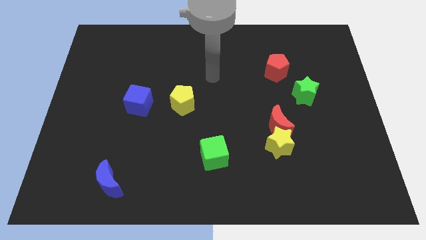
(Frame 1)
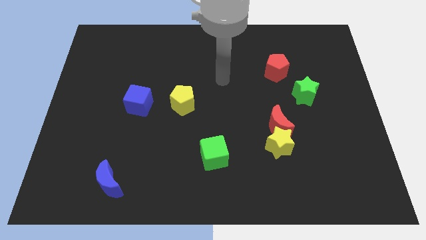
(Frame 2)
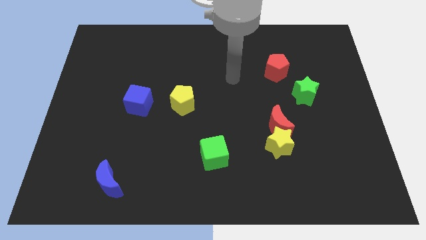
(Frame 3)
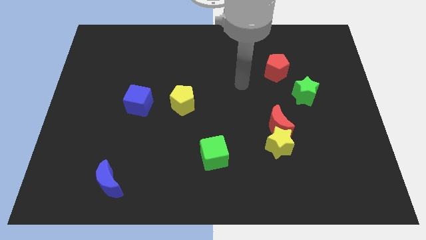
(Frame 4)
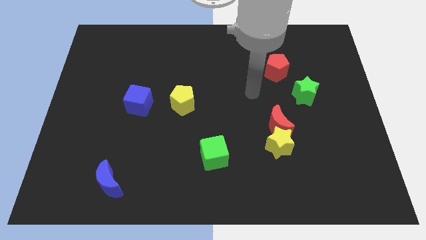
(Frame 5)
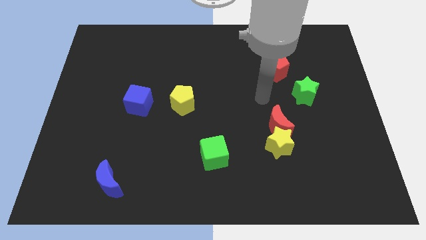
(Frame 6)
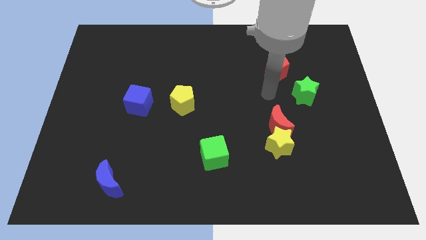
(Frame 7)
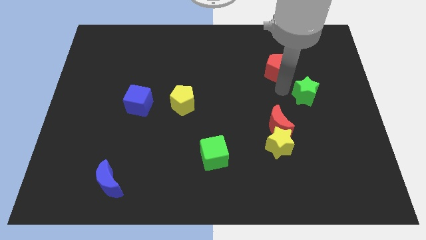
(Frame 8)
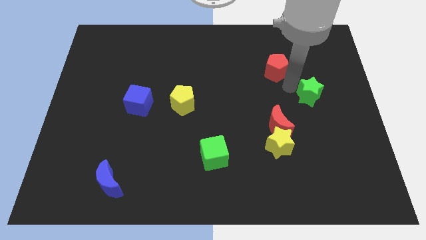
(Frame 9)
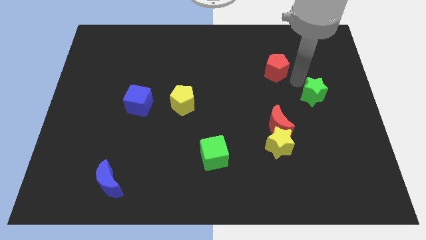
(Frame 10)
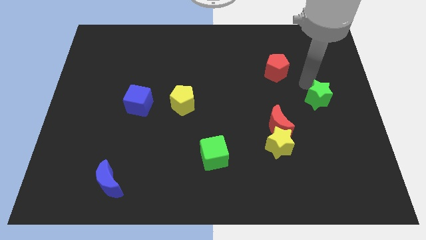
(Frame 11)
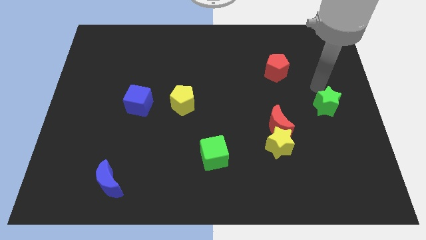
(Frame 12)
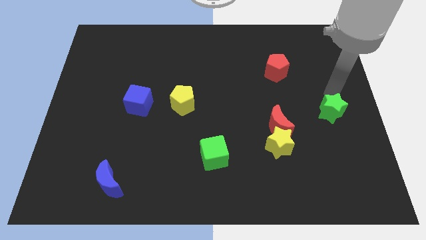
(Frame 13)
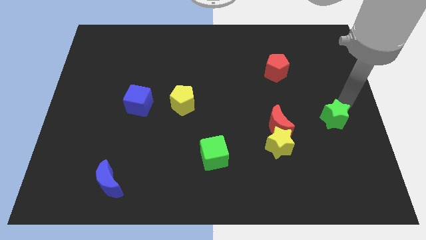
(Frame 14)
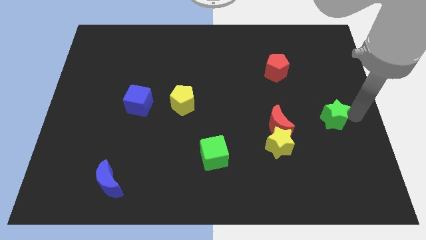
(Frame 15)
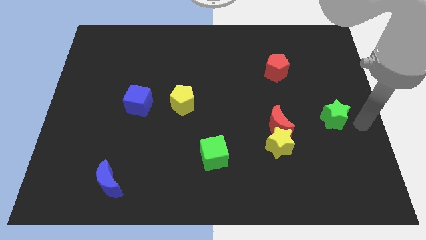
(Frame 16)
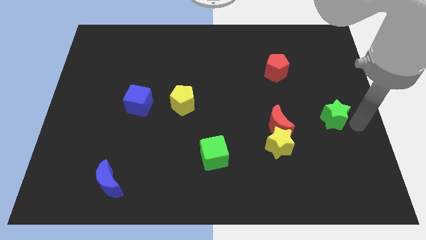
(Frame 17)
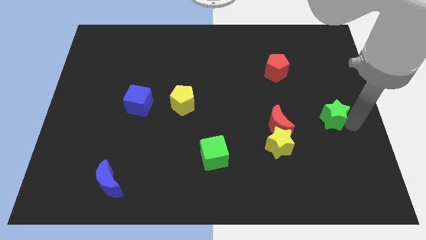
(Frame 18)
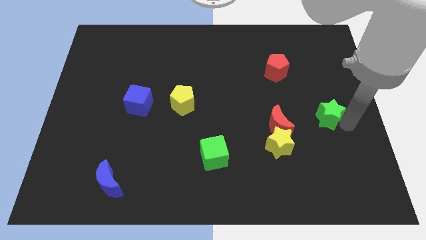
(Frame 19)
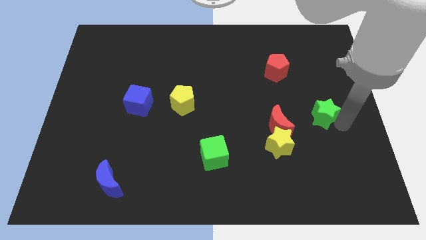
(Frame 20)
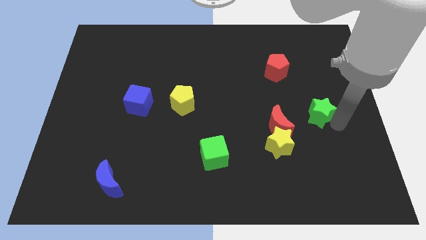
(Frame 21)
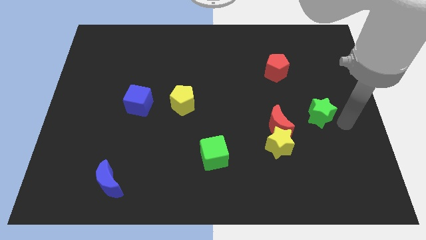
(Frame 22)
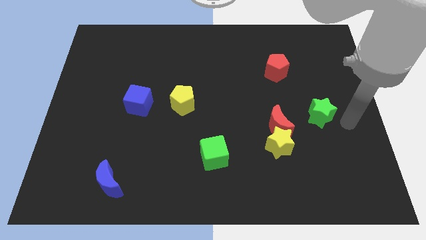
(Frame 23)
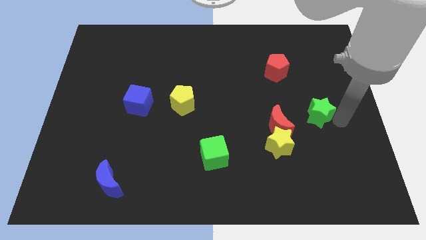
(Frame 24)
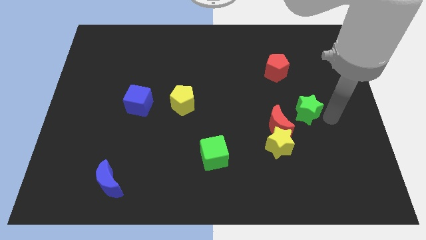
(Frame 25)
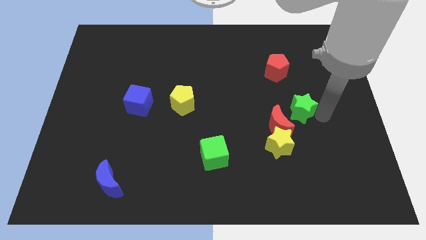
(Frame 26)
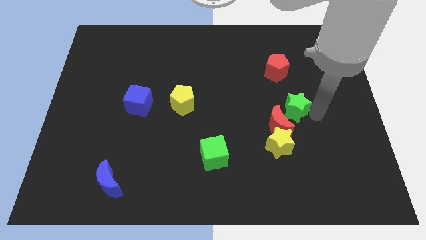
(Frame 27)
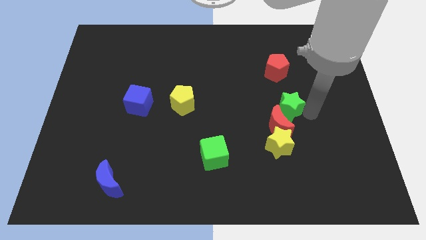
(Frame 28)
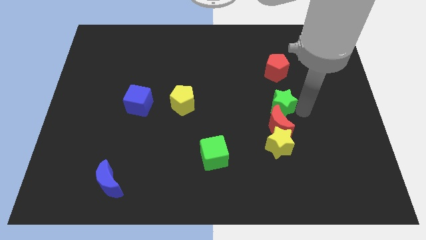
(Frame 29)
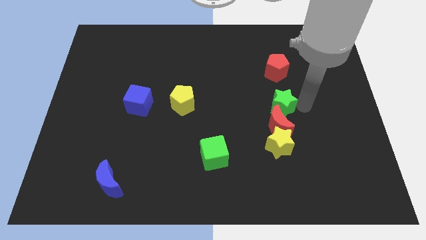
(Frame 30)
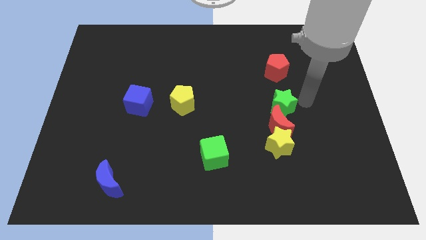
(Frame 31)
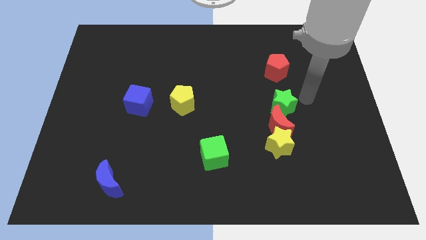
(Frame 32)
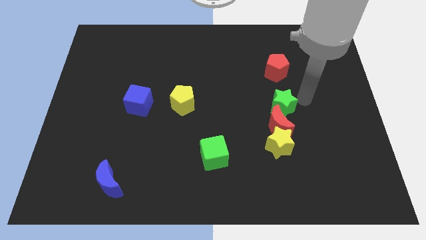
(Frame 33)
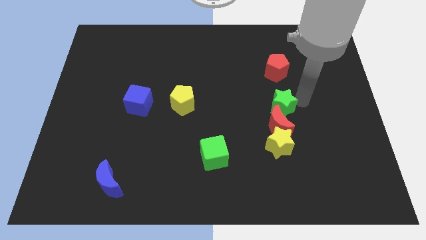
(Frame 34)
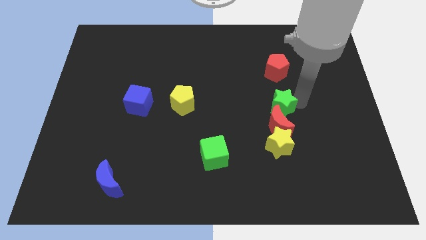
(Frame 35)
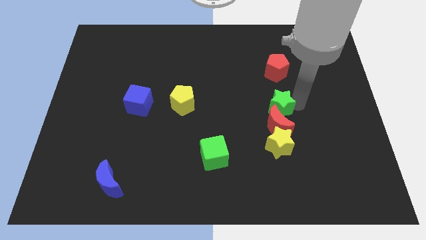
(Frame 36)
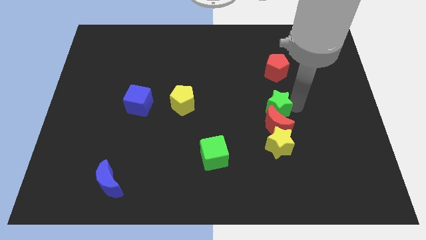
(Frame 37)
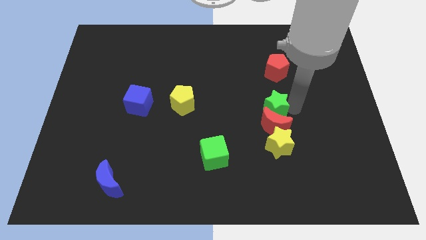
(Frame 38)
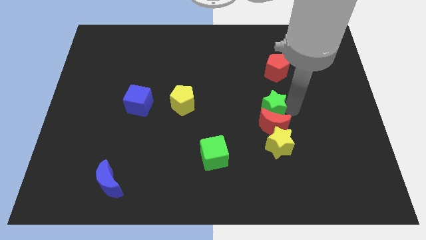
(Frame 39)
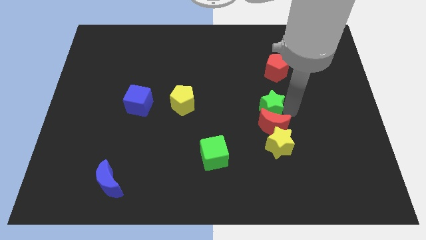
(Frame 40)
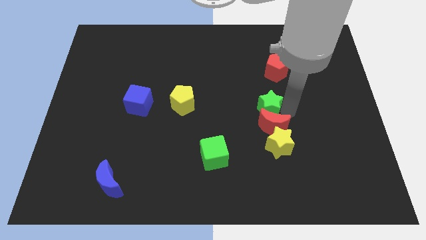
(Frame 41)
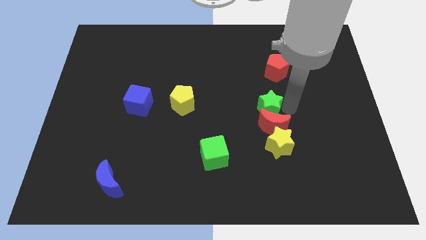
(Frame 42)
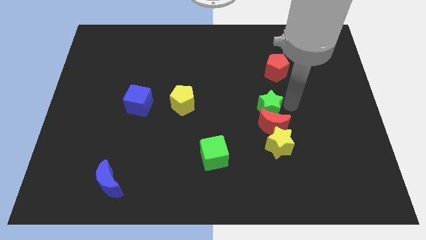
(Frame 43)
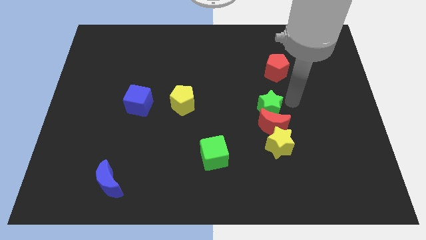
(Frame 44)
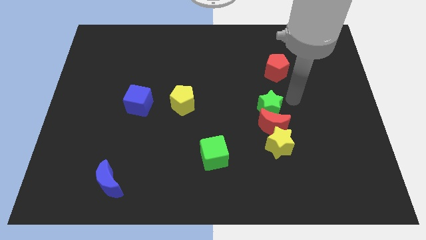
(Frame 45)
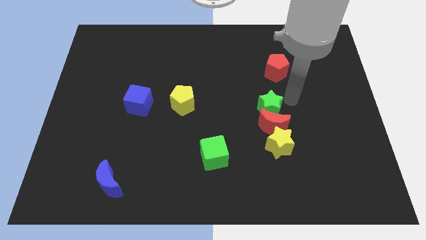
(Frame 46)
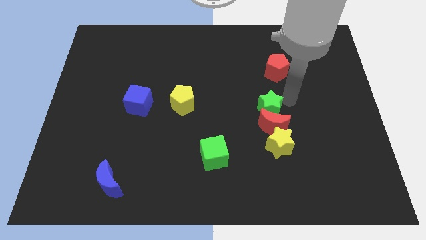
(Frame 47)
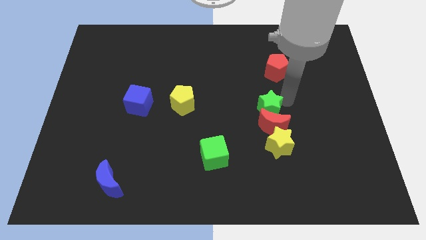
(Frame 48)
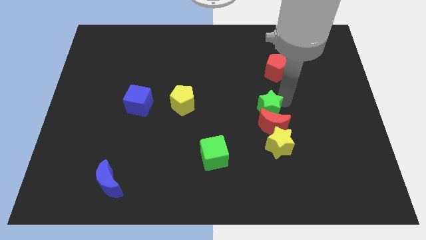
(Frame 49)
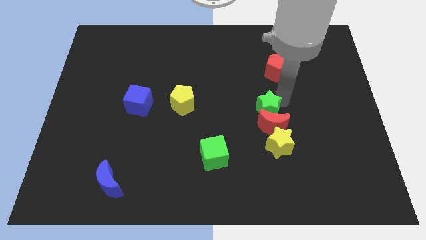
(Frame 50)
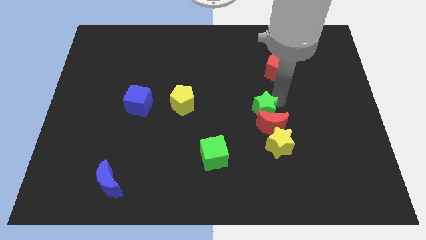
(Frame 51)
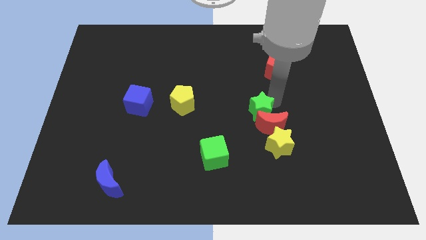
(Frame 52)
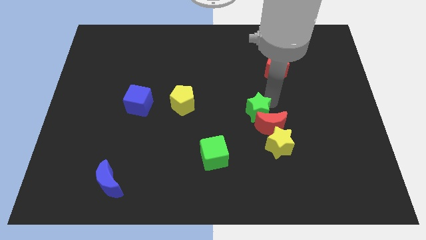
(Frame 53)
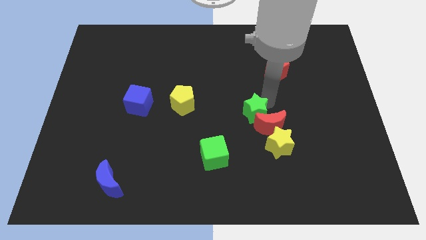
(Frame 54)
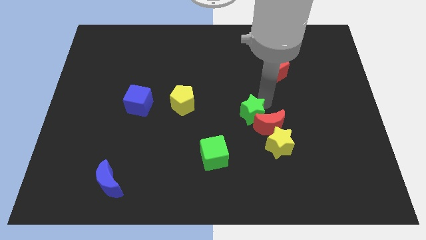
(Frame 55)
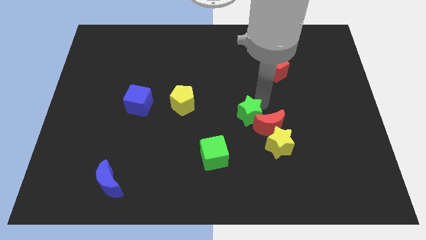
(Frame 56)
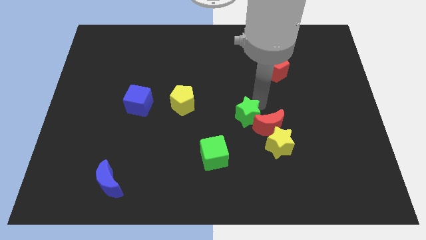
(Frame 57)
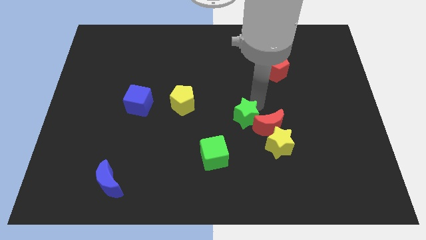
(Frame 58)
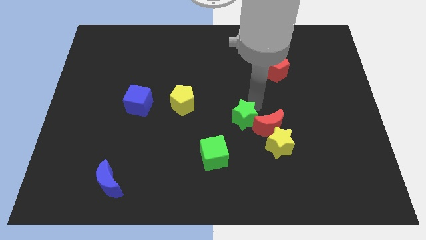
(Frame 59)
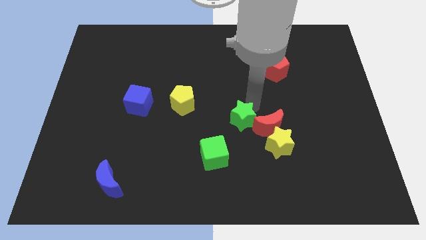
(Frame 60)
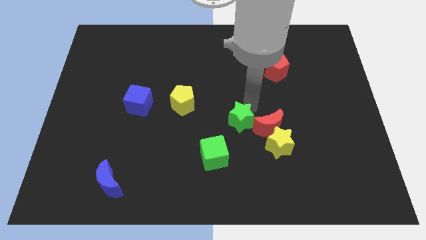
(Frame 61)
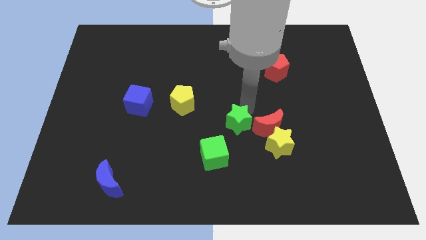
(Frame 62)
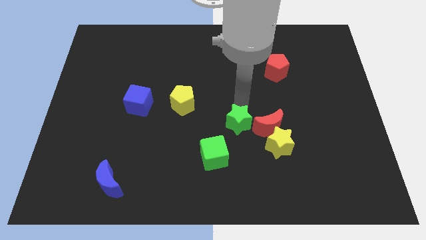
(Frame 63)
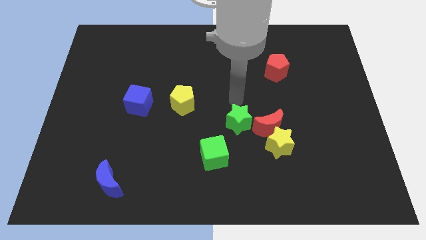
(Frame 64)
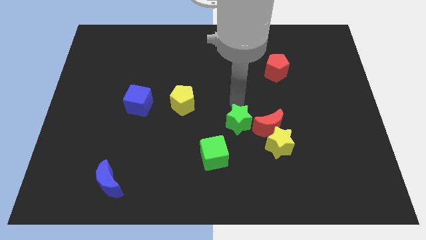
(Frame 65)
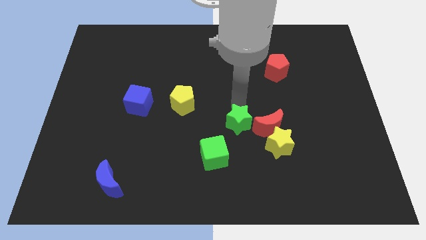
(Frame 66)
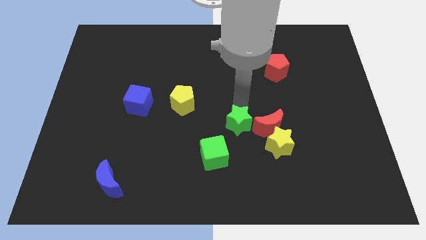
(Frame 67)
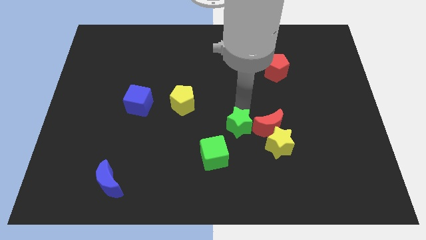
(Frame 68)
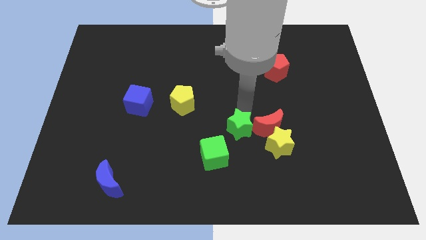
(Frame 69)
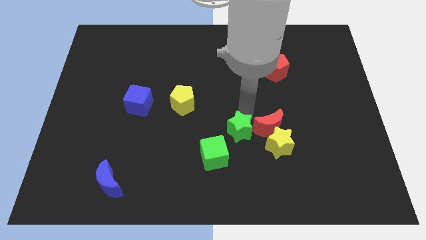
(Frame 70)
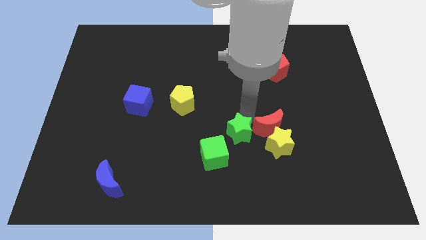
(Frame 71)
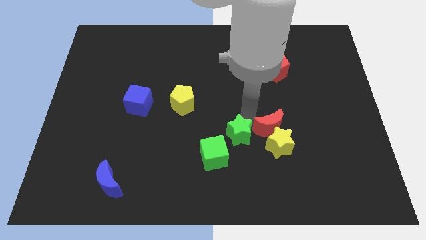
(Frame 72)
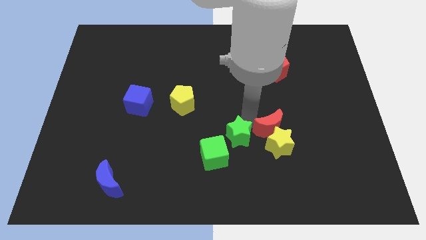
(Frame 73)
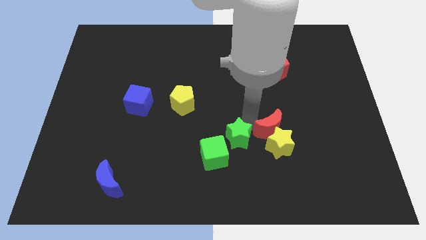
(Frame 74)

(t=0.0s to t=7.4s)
slide the green star down and then to the left

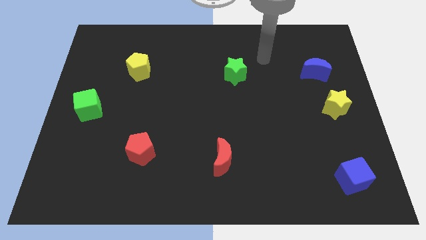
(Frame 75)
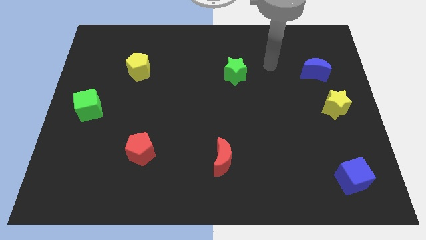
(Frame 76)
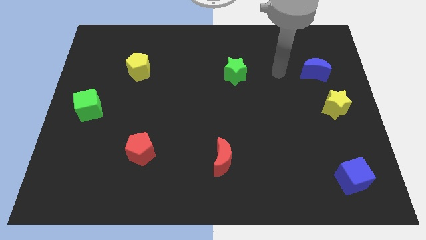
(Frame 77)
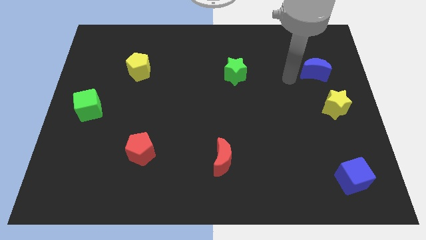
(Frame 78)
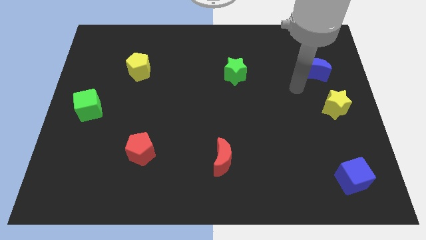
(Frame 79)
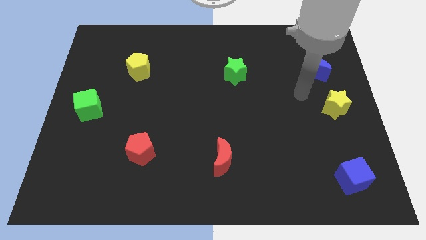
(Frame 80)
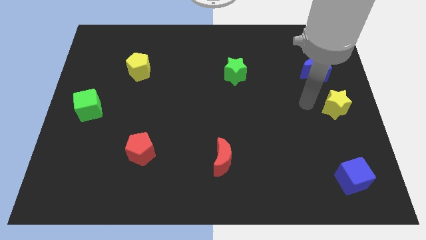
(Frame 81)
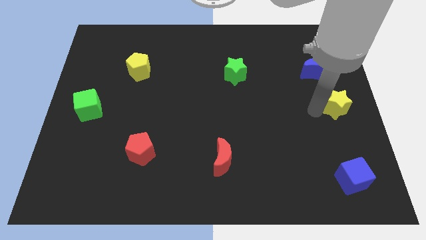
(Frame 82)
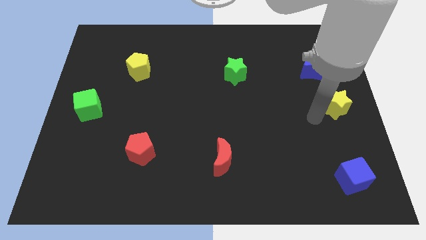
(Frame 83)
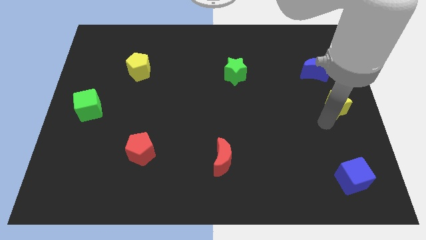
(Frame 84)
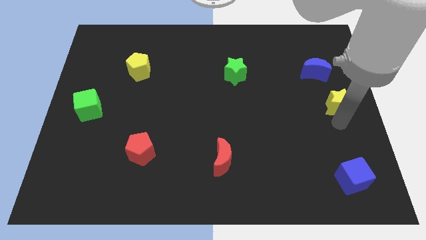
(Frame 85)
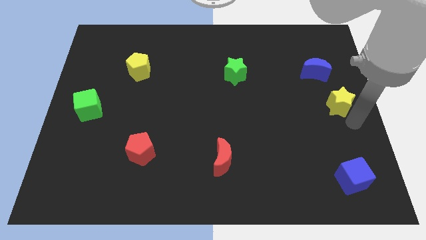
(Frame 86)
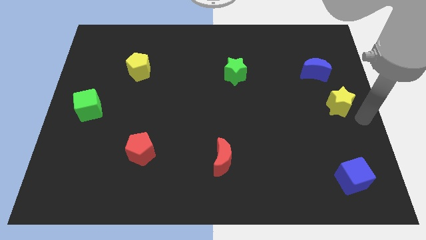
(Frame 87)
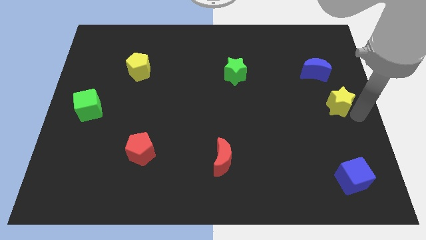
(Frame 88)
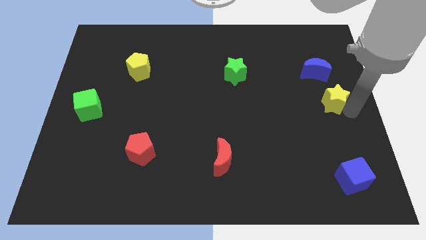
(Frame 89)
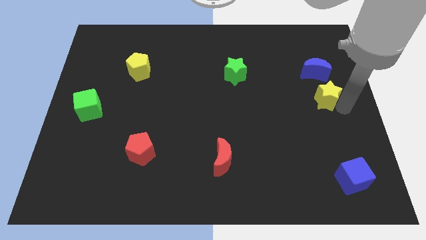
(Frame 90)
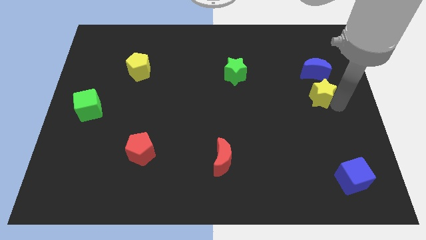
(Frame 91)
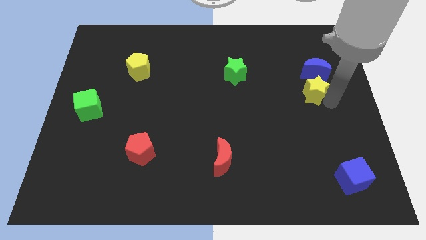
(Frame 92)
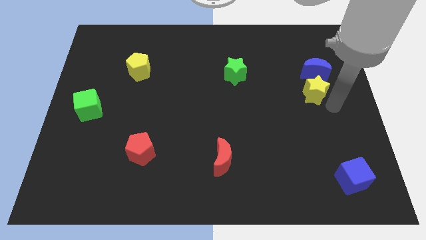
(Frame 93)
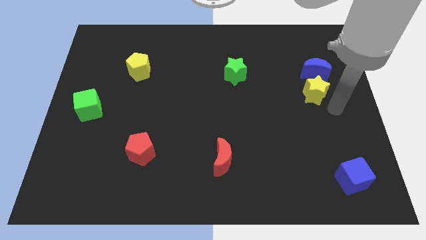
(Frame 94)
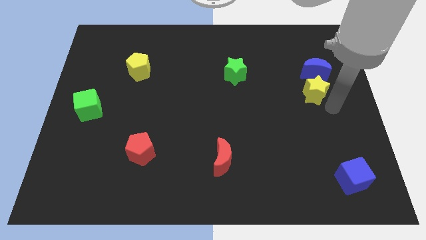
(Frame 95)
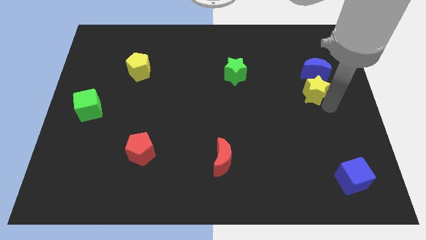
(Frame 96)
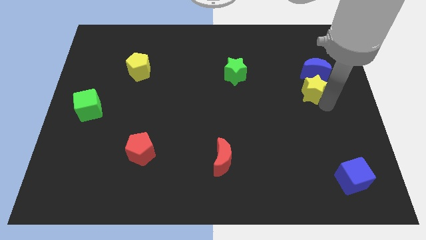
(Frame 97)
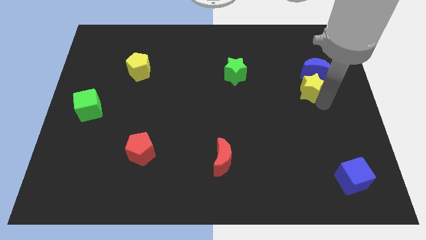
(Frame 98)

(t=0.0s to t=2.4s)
slide the yellow star up and then left slightly
